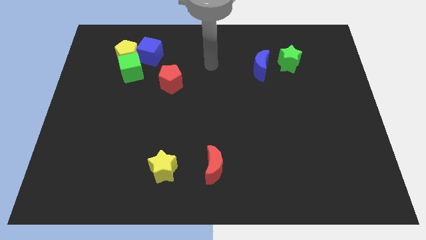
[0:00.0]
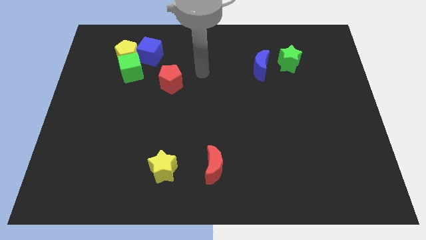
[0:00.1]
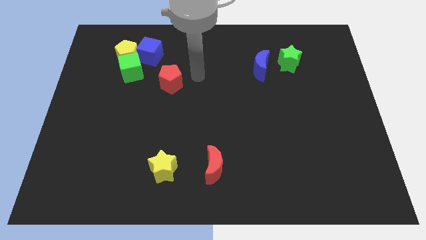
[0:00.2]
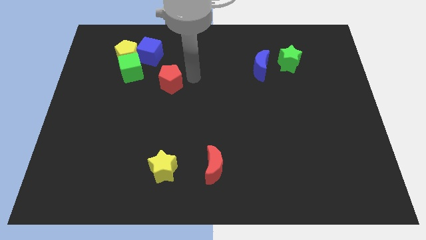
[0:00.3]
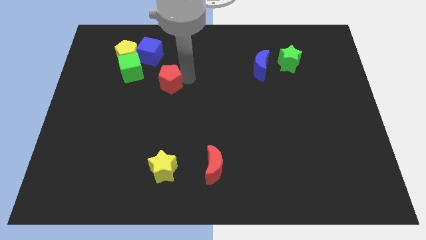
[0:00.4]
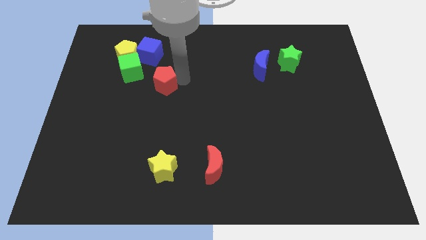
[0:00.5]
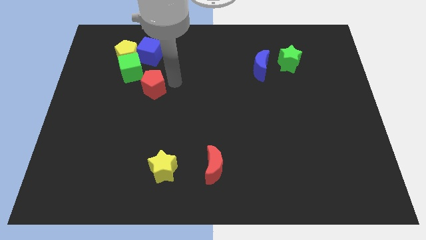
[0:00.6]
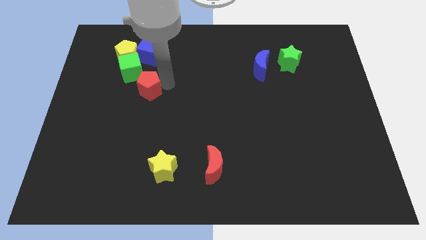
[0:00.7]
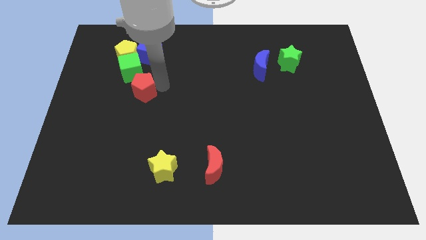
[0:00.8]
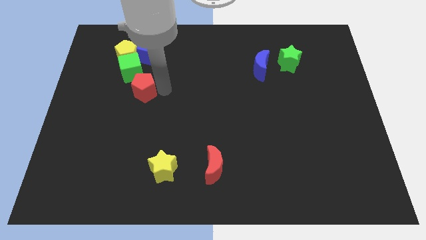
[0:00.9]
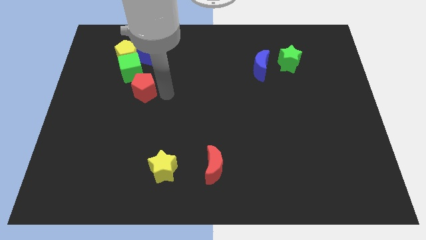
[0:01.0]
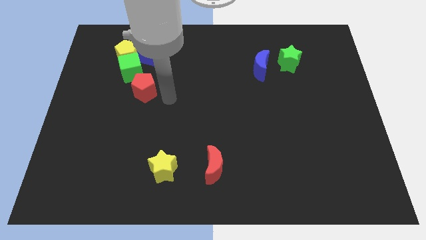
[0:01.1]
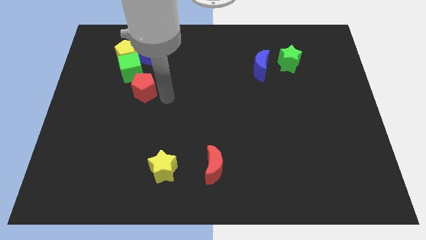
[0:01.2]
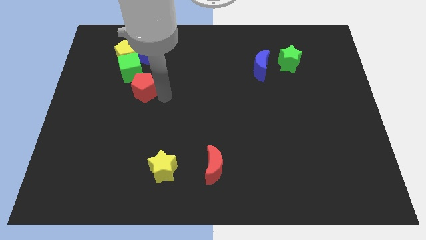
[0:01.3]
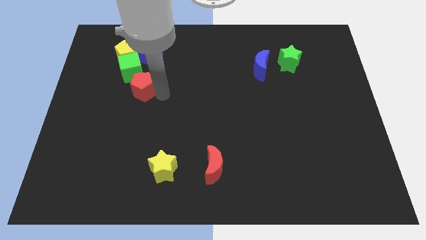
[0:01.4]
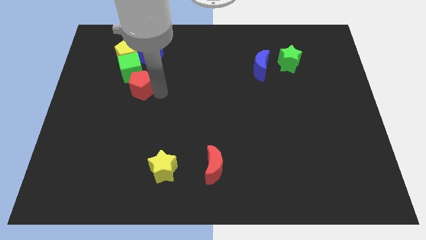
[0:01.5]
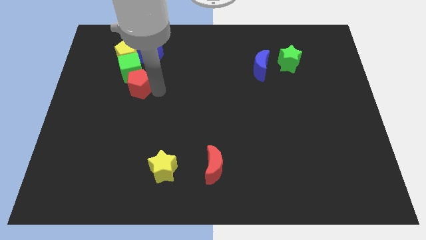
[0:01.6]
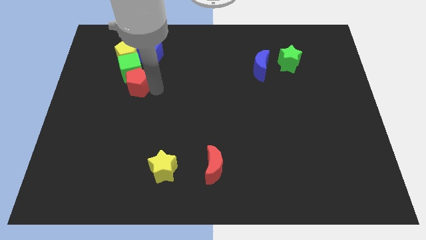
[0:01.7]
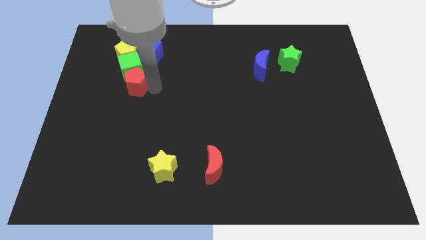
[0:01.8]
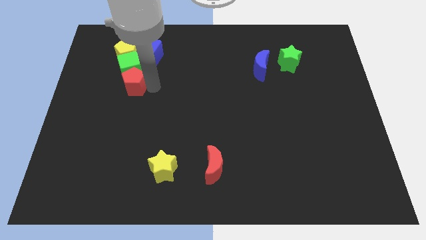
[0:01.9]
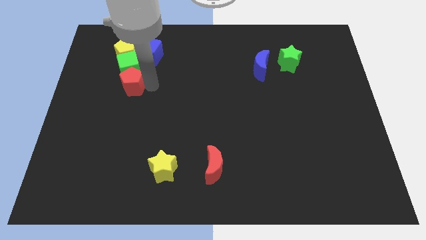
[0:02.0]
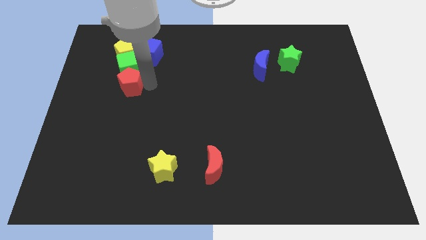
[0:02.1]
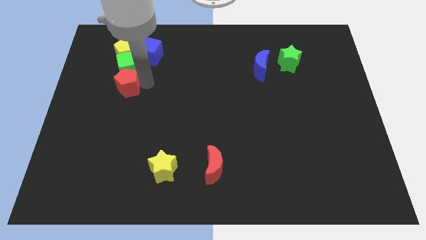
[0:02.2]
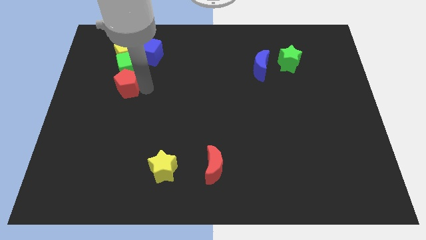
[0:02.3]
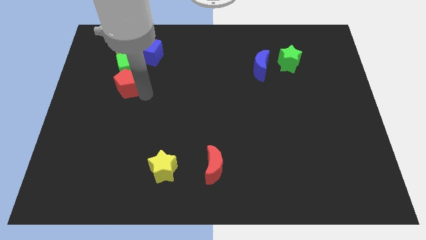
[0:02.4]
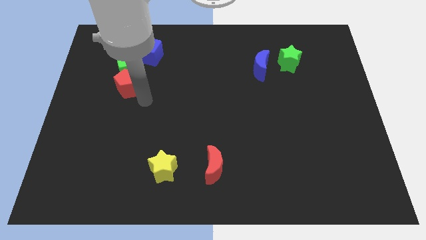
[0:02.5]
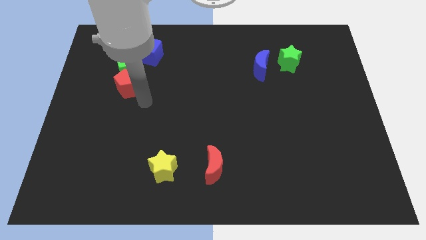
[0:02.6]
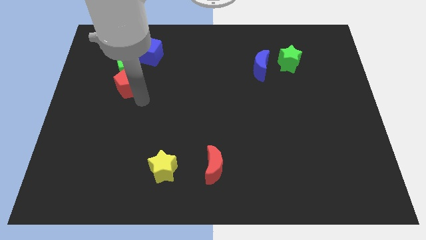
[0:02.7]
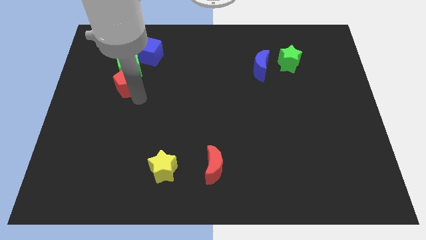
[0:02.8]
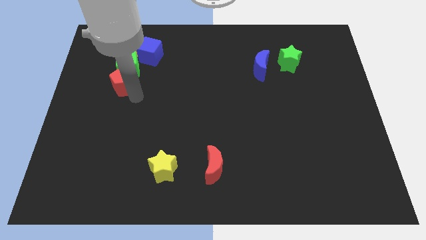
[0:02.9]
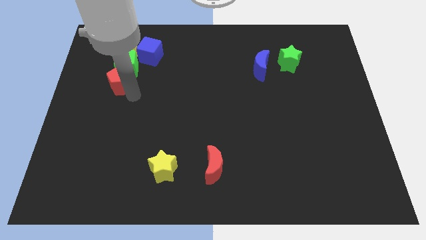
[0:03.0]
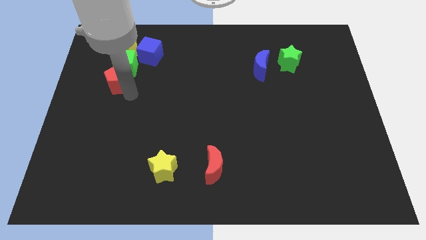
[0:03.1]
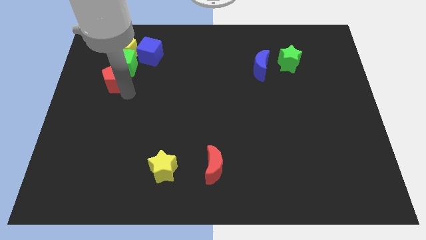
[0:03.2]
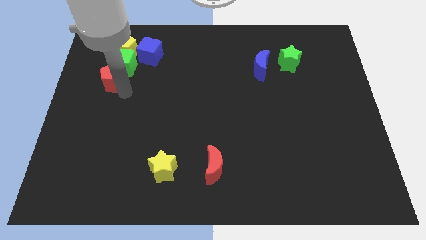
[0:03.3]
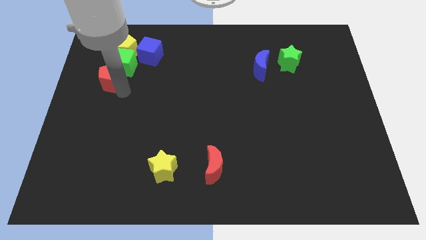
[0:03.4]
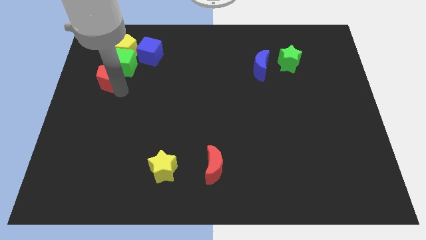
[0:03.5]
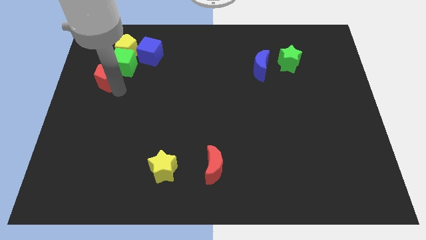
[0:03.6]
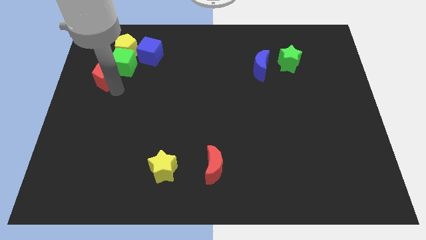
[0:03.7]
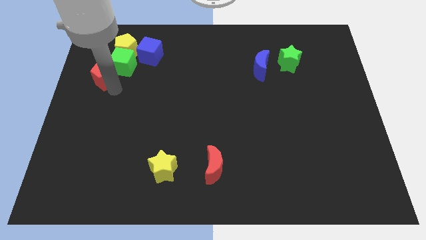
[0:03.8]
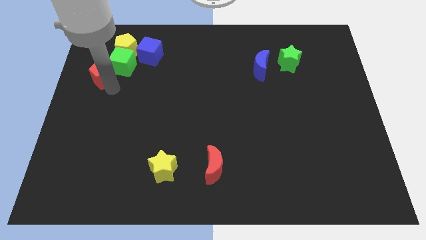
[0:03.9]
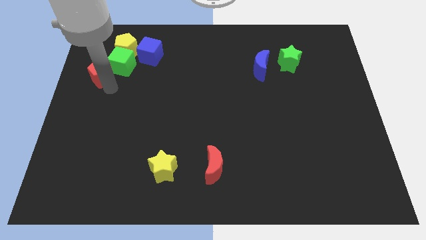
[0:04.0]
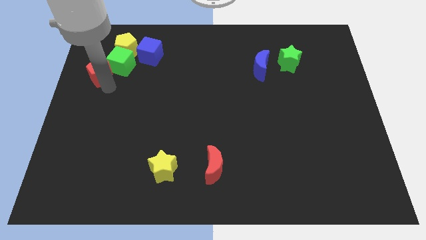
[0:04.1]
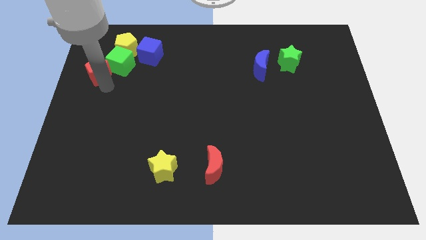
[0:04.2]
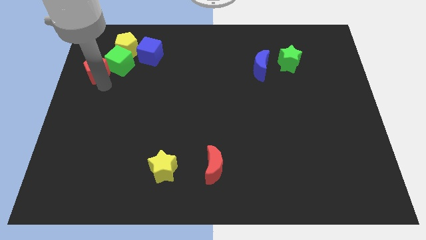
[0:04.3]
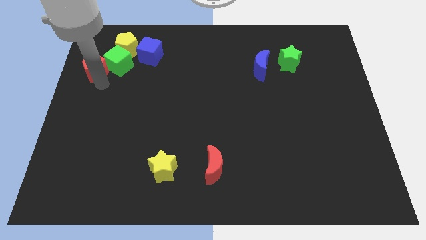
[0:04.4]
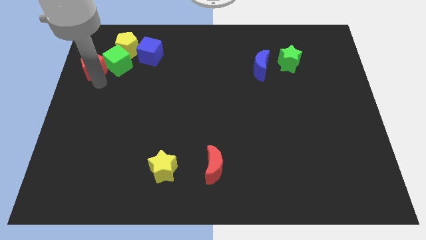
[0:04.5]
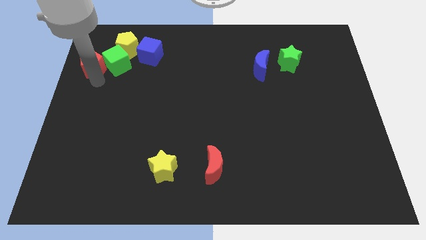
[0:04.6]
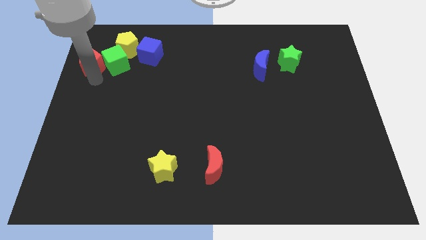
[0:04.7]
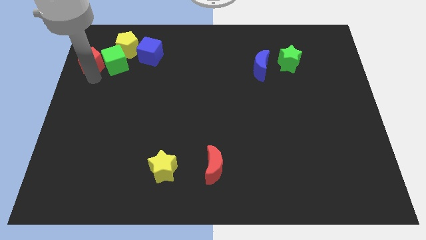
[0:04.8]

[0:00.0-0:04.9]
push the red pentagon to the left side of the blue cube

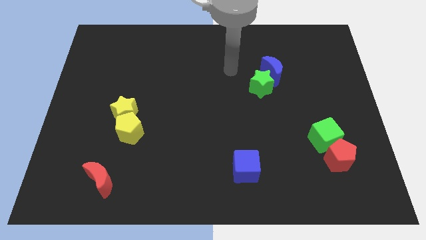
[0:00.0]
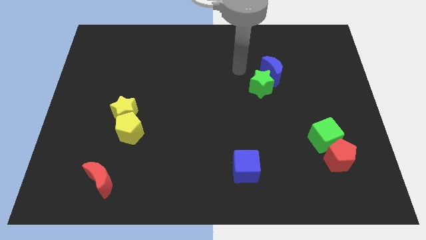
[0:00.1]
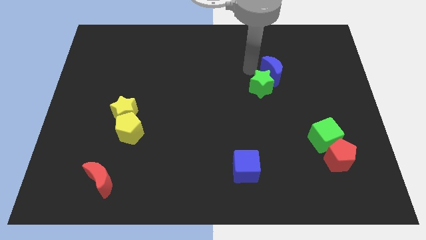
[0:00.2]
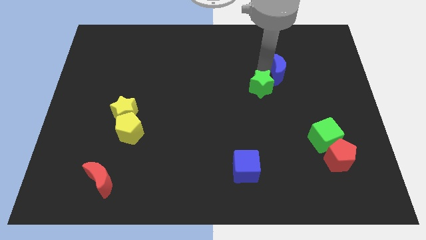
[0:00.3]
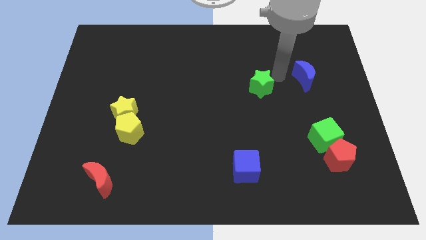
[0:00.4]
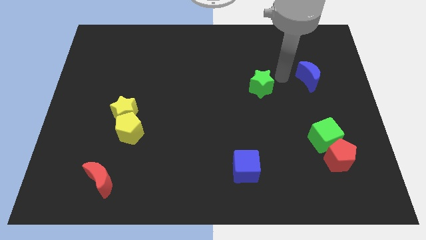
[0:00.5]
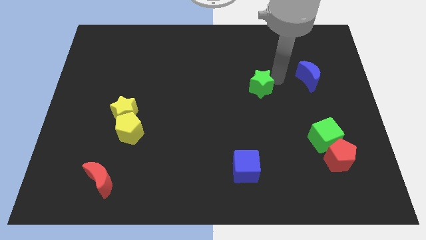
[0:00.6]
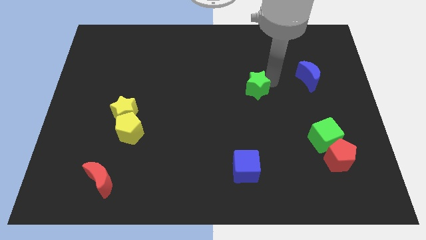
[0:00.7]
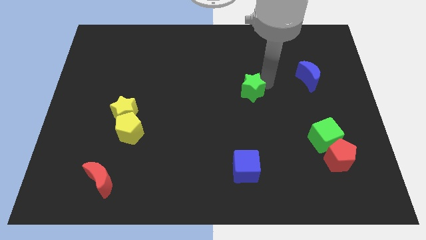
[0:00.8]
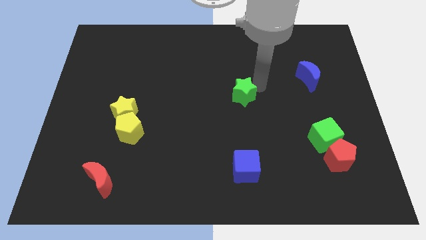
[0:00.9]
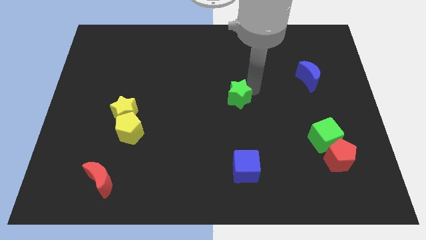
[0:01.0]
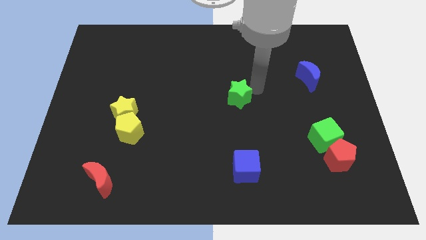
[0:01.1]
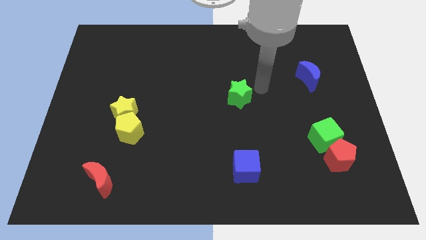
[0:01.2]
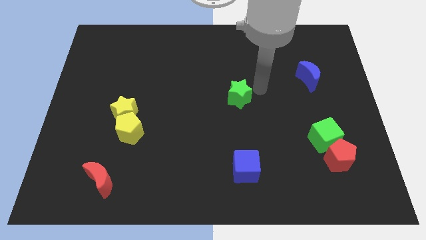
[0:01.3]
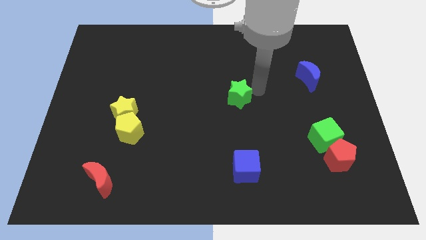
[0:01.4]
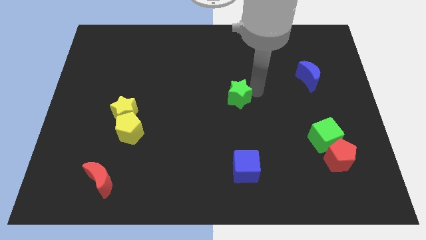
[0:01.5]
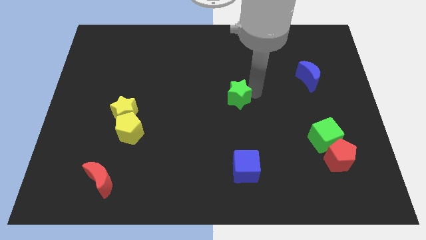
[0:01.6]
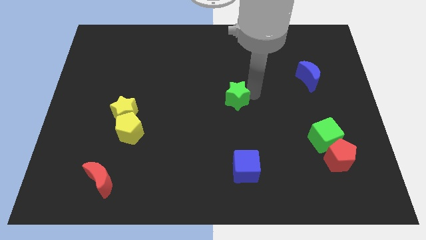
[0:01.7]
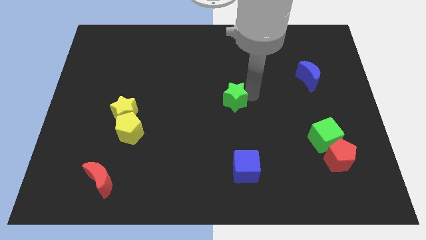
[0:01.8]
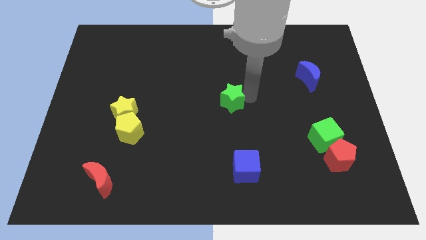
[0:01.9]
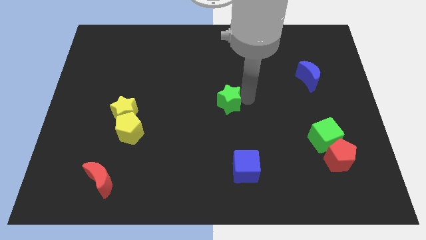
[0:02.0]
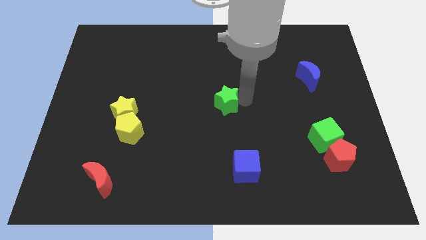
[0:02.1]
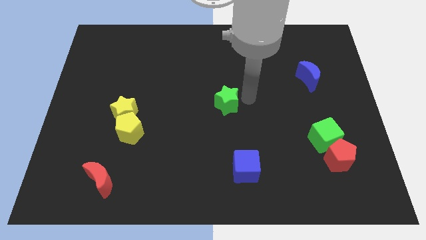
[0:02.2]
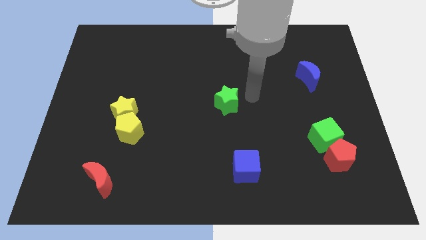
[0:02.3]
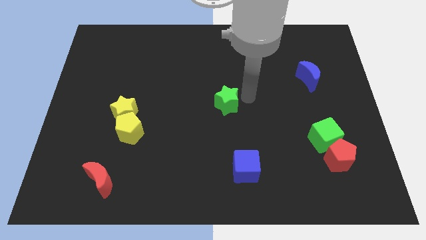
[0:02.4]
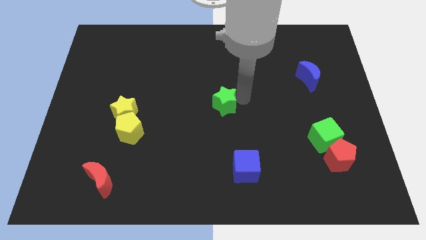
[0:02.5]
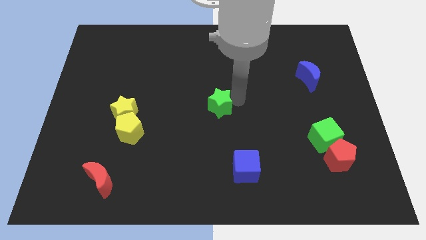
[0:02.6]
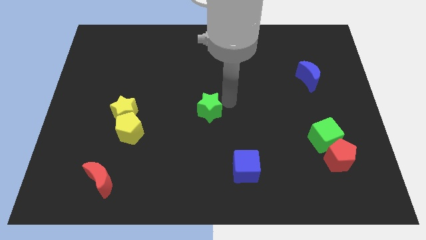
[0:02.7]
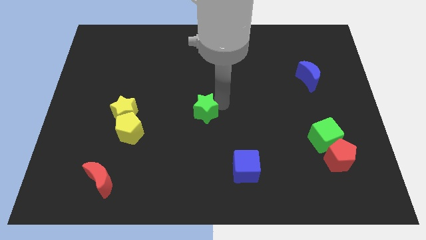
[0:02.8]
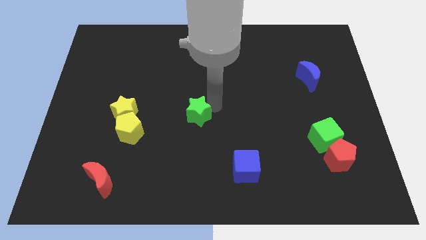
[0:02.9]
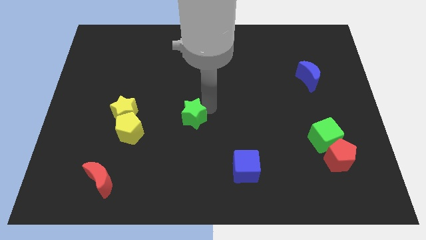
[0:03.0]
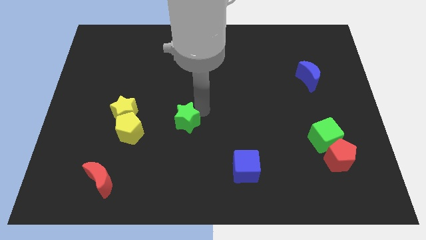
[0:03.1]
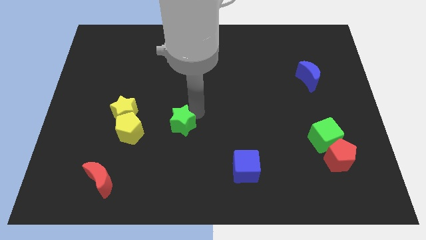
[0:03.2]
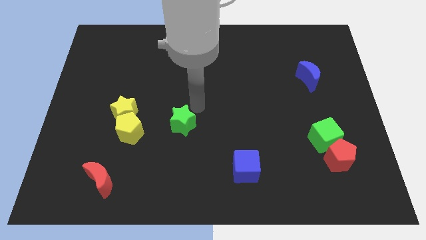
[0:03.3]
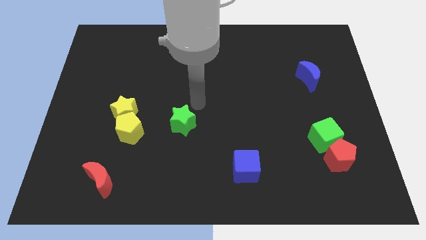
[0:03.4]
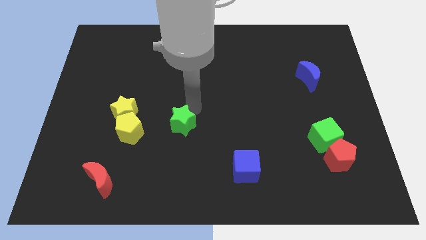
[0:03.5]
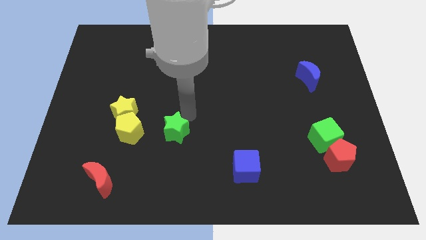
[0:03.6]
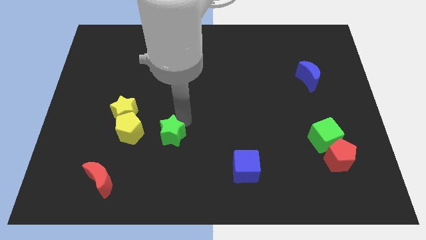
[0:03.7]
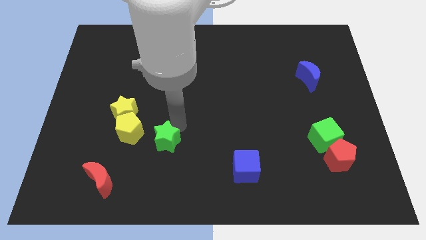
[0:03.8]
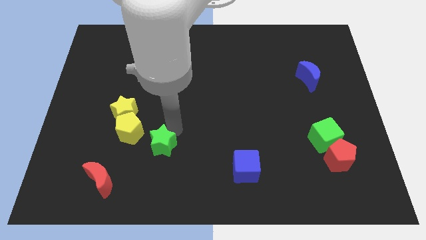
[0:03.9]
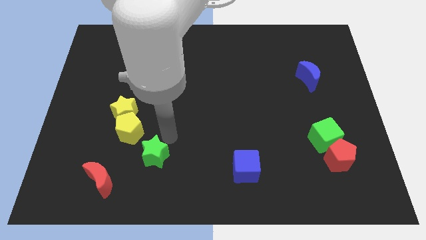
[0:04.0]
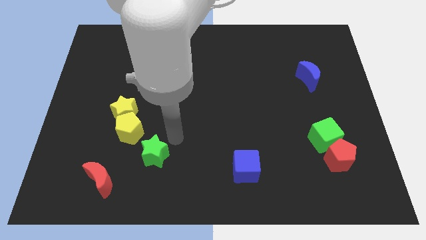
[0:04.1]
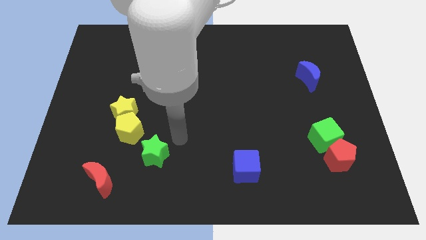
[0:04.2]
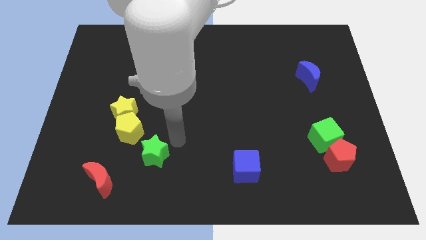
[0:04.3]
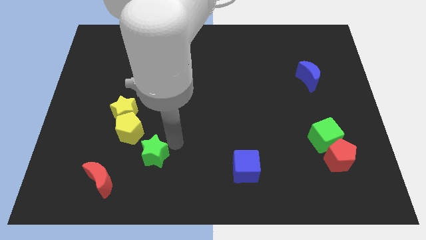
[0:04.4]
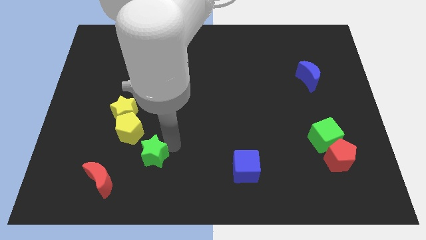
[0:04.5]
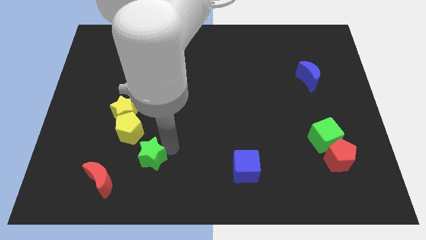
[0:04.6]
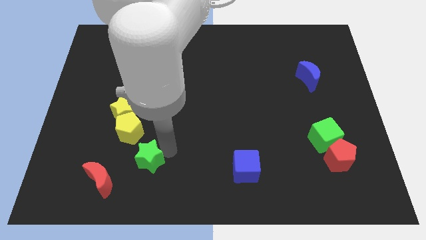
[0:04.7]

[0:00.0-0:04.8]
put the green star to the bottom of the yellow pentagon
